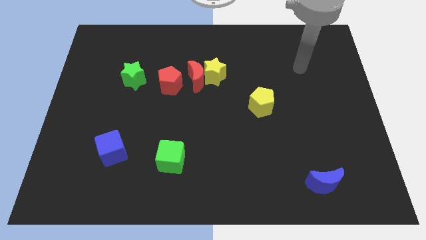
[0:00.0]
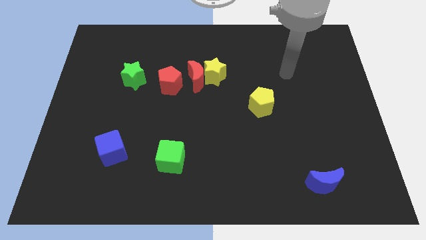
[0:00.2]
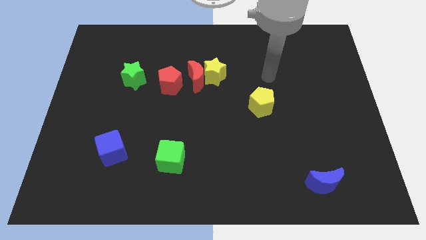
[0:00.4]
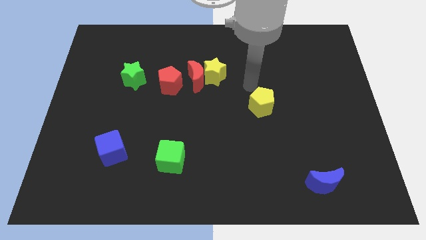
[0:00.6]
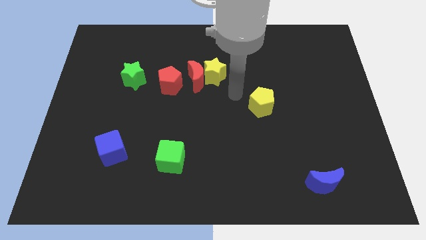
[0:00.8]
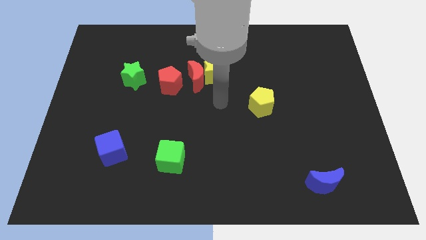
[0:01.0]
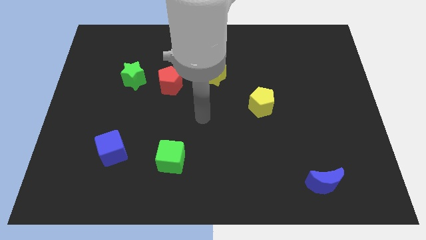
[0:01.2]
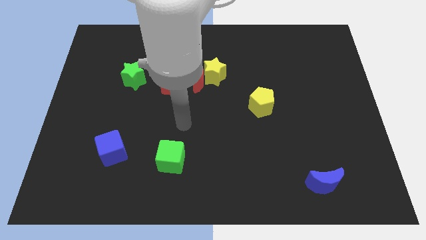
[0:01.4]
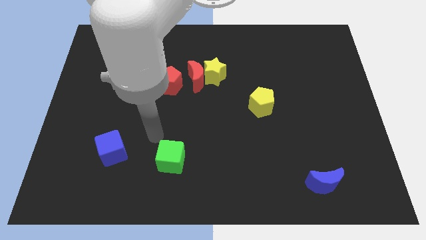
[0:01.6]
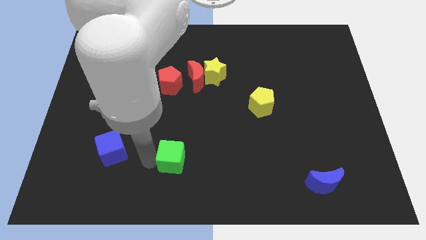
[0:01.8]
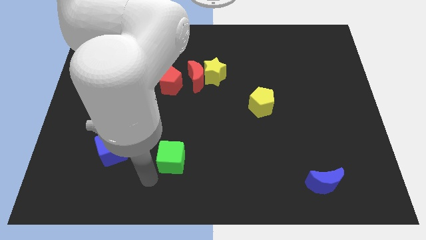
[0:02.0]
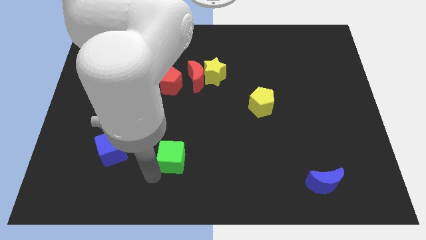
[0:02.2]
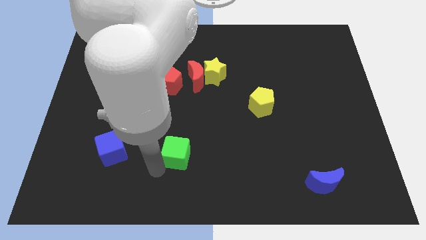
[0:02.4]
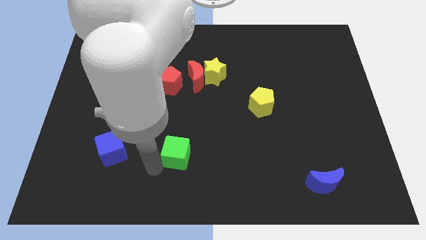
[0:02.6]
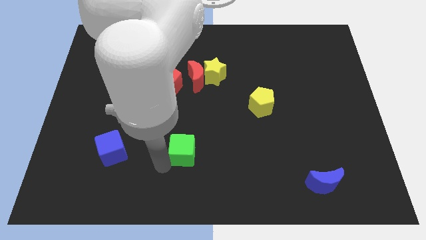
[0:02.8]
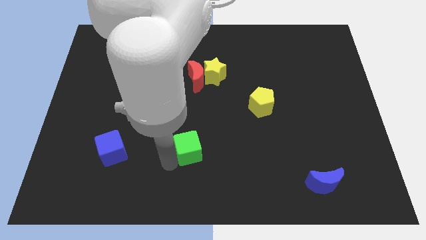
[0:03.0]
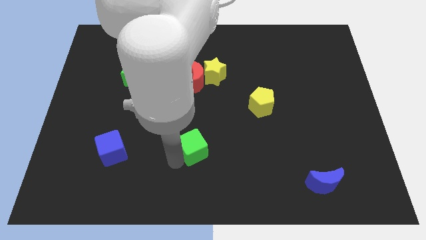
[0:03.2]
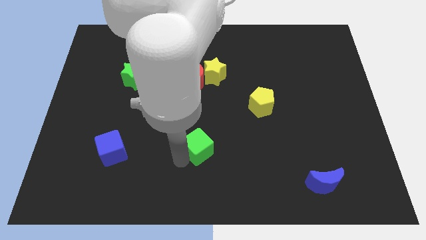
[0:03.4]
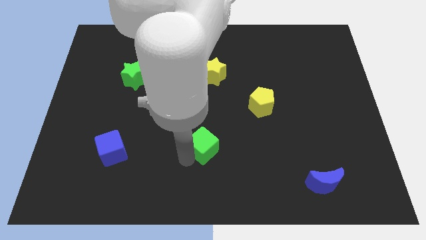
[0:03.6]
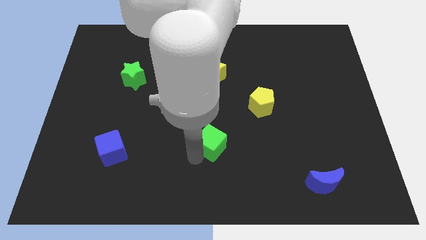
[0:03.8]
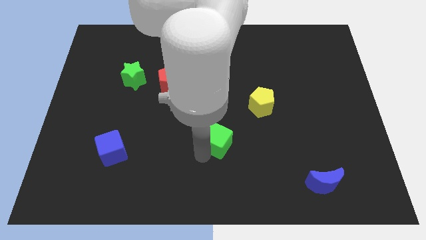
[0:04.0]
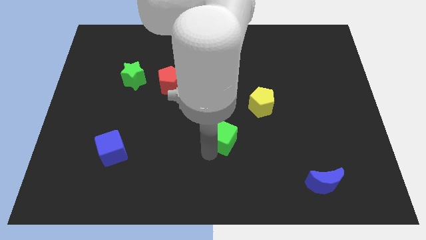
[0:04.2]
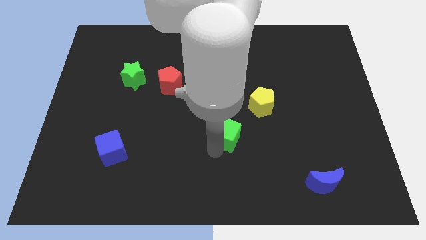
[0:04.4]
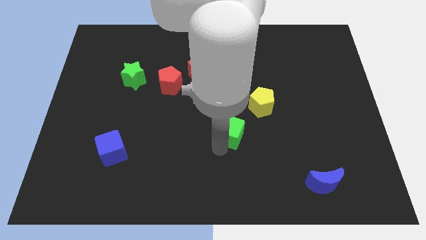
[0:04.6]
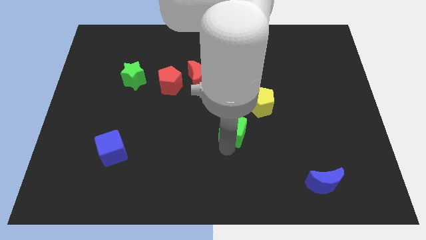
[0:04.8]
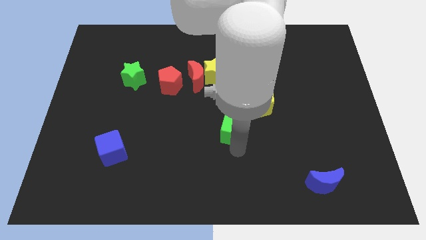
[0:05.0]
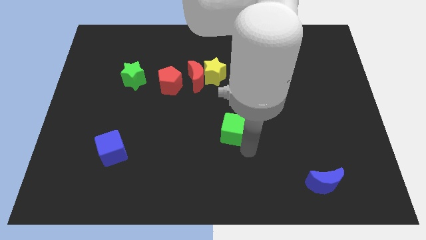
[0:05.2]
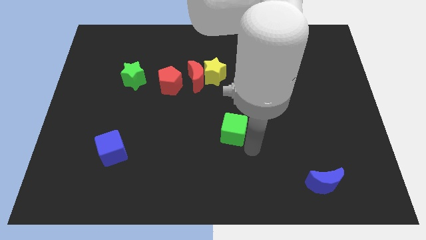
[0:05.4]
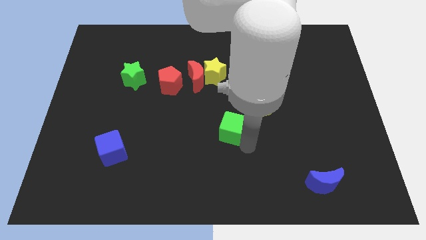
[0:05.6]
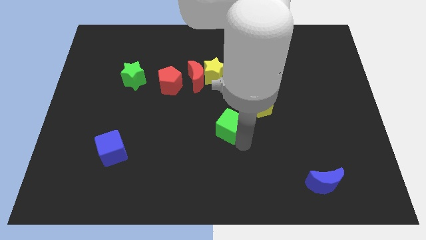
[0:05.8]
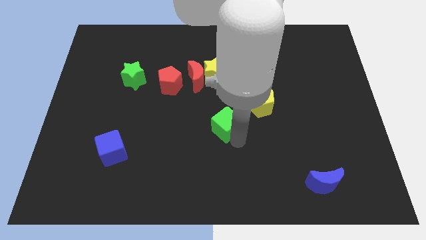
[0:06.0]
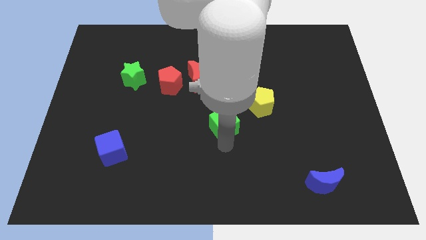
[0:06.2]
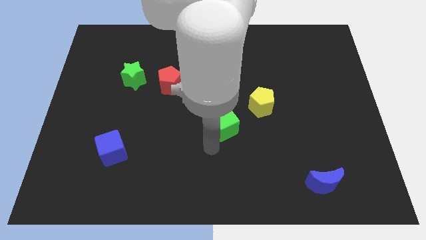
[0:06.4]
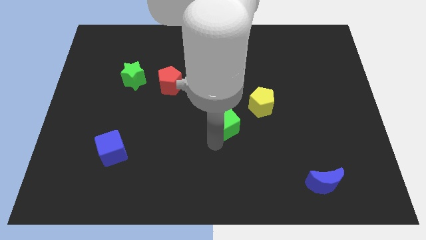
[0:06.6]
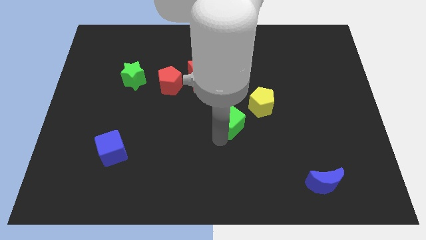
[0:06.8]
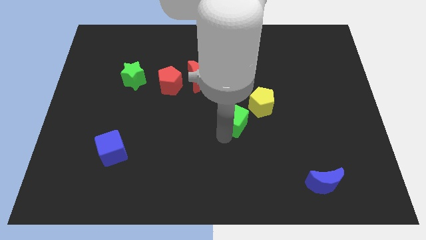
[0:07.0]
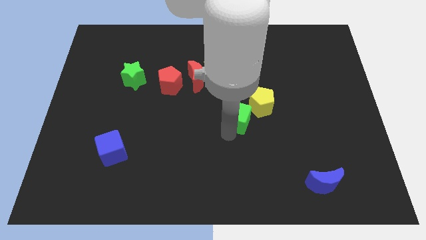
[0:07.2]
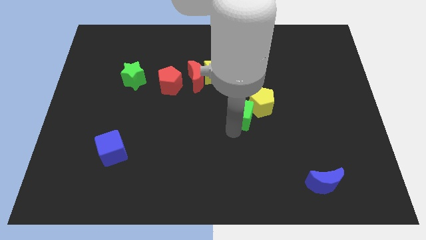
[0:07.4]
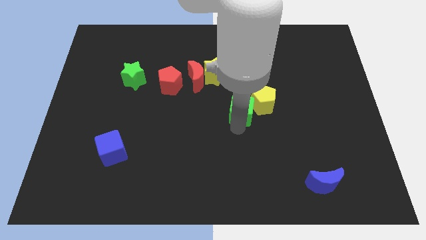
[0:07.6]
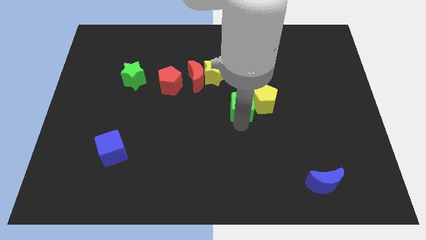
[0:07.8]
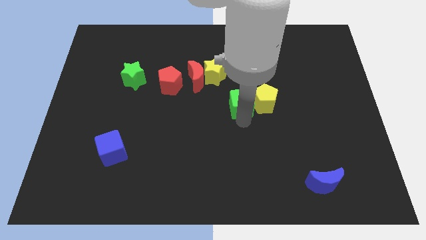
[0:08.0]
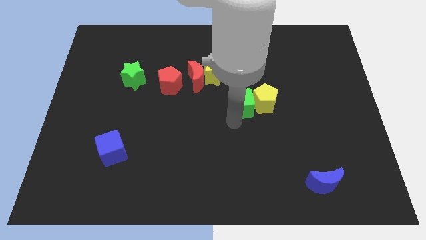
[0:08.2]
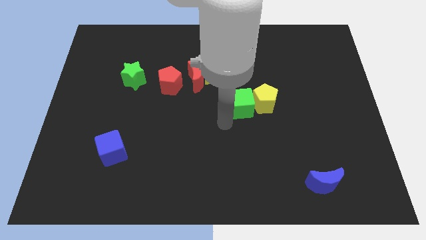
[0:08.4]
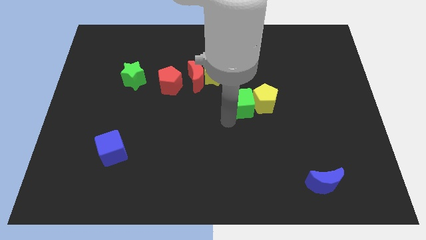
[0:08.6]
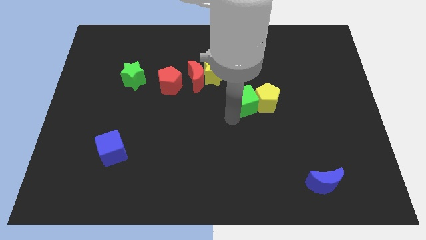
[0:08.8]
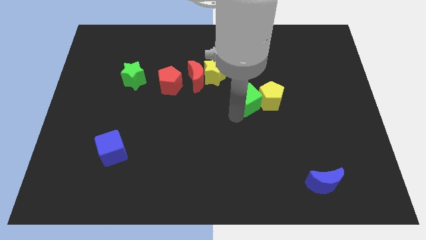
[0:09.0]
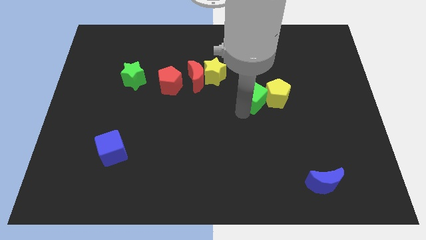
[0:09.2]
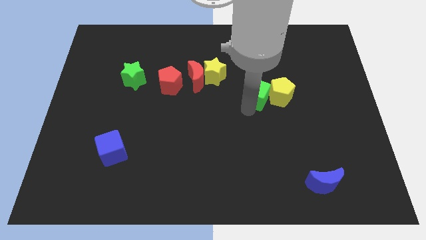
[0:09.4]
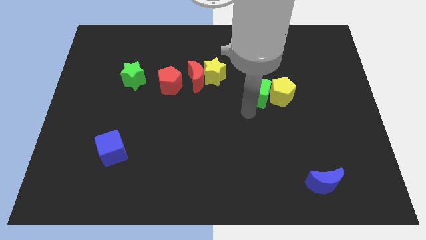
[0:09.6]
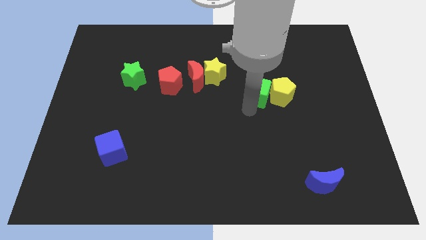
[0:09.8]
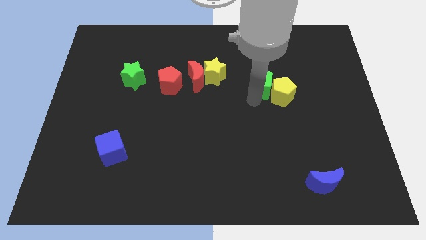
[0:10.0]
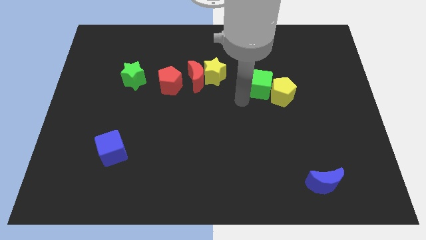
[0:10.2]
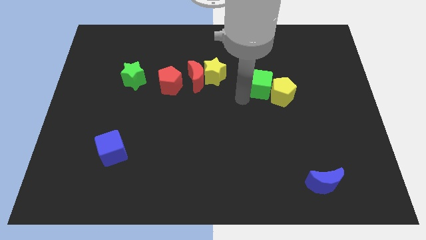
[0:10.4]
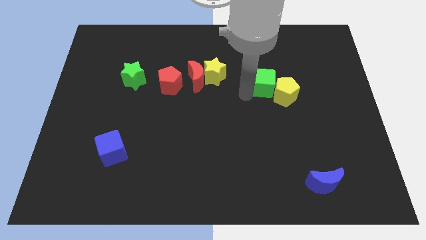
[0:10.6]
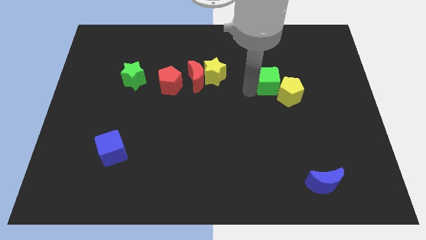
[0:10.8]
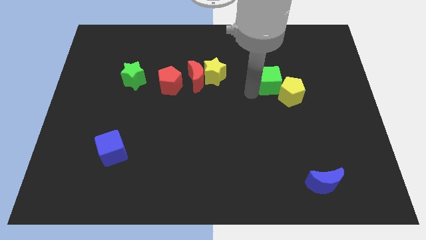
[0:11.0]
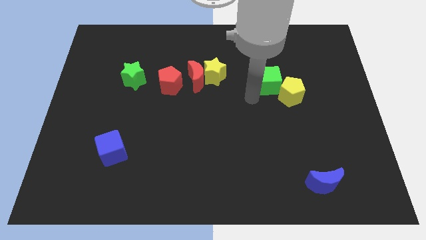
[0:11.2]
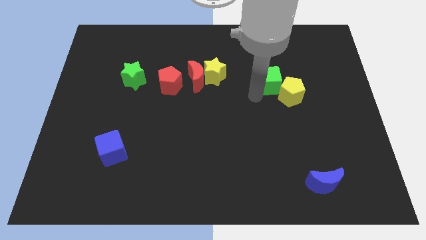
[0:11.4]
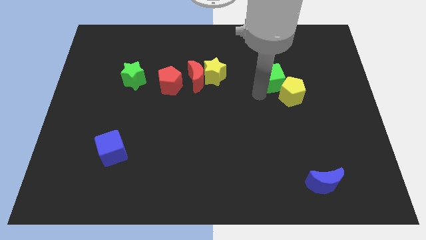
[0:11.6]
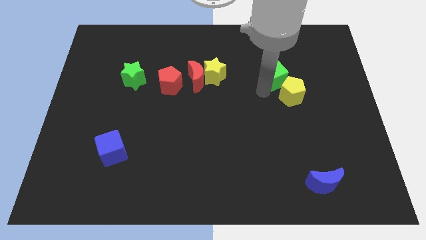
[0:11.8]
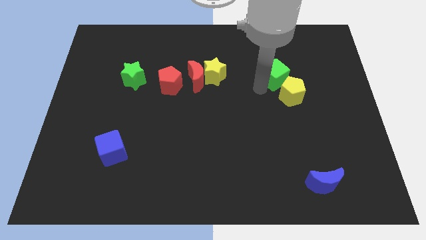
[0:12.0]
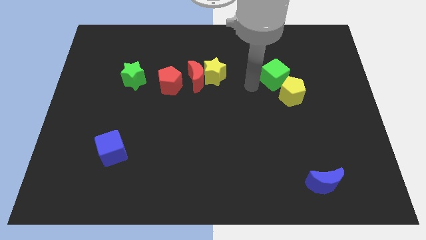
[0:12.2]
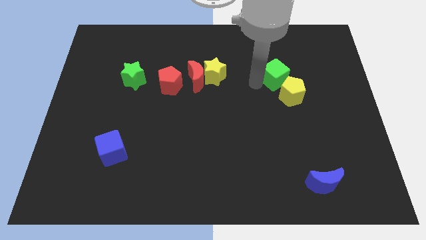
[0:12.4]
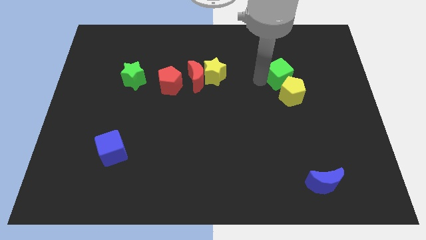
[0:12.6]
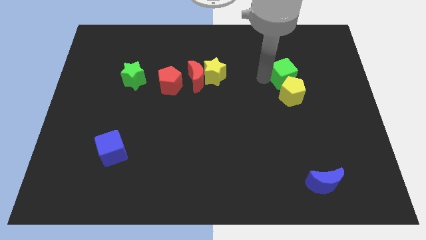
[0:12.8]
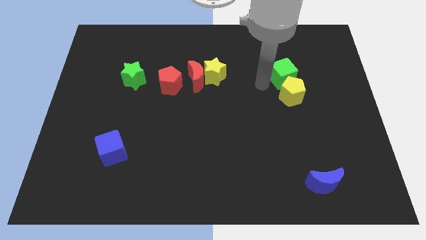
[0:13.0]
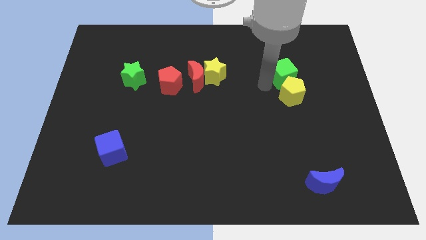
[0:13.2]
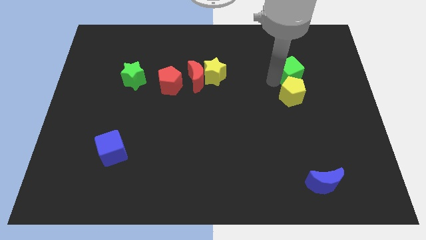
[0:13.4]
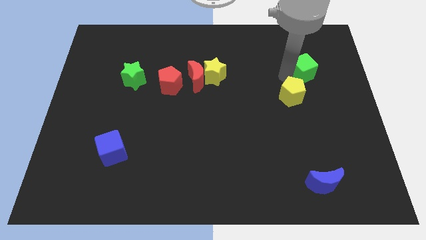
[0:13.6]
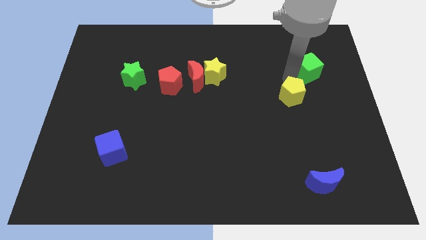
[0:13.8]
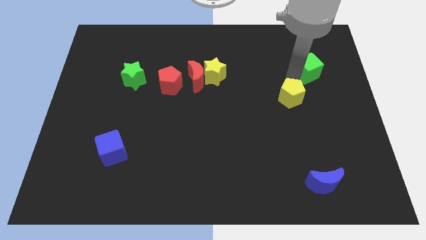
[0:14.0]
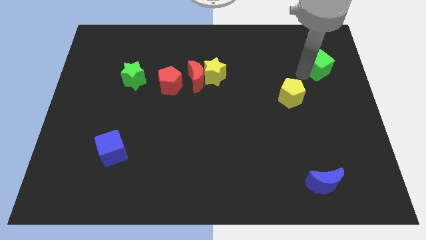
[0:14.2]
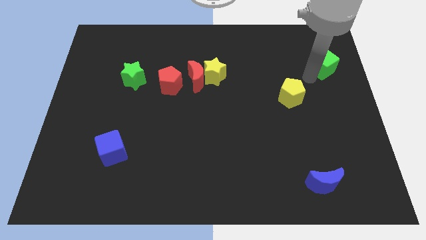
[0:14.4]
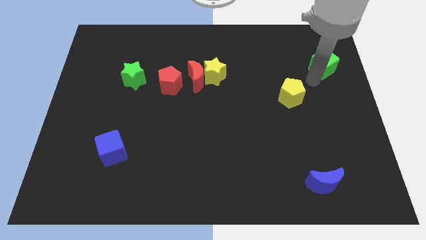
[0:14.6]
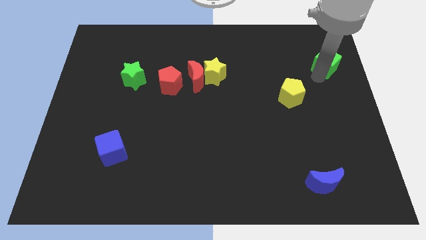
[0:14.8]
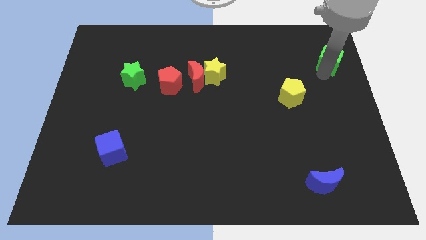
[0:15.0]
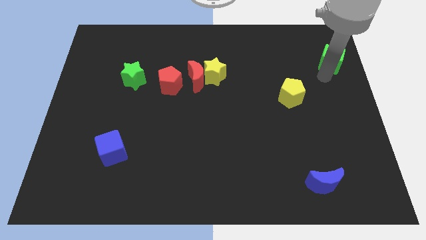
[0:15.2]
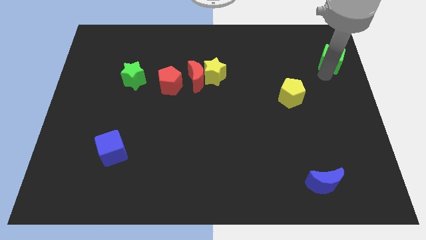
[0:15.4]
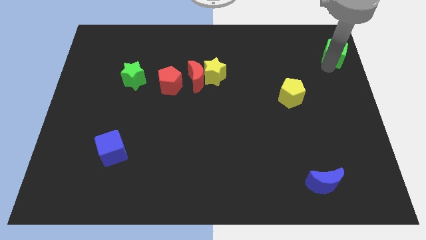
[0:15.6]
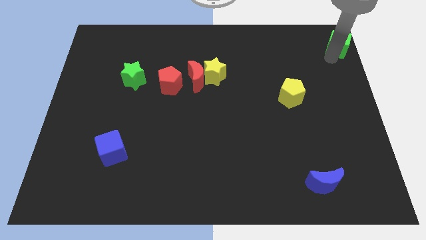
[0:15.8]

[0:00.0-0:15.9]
slide the green cube to the top right of the board
